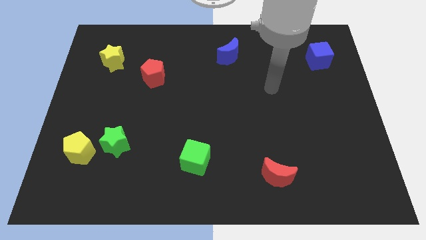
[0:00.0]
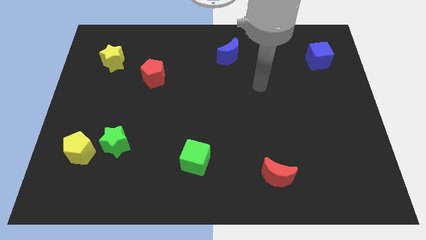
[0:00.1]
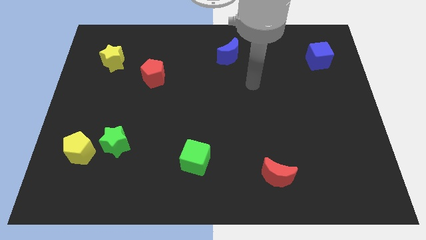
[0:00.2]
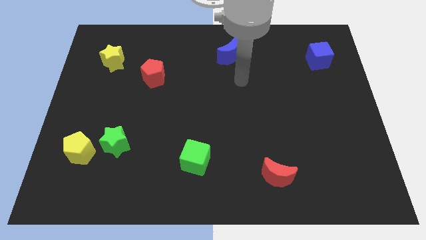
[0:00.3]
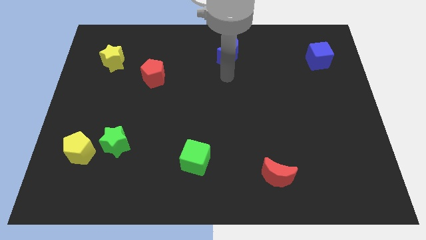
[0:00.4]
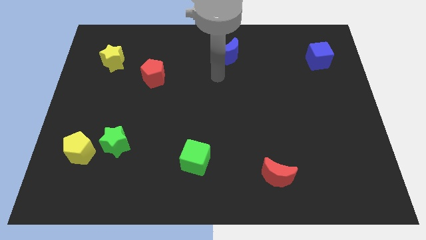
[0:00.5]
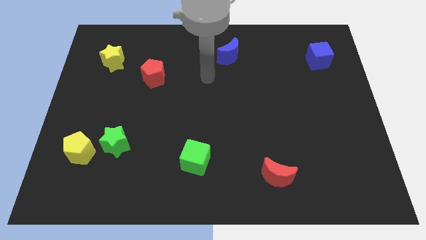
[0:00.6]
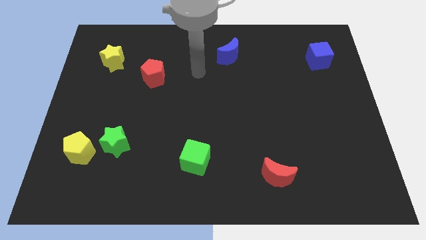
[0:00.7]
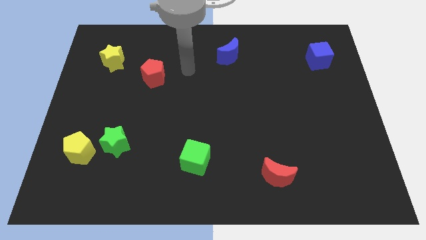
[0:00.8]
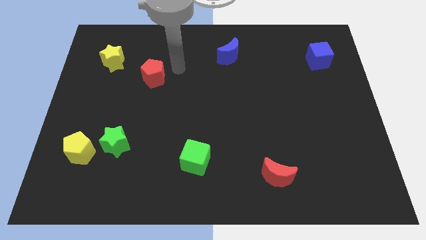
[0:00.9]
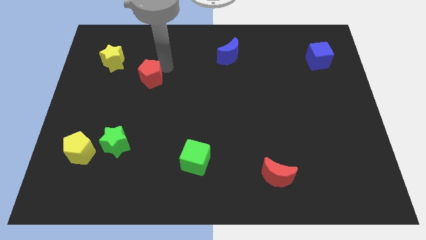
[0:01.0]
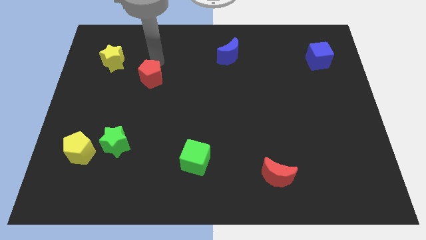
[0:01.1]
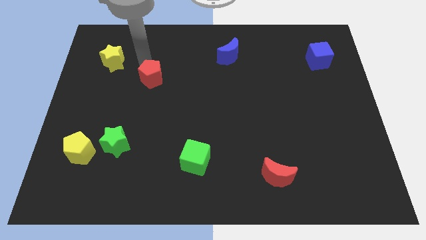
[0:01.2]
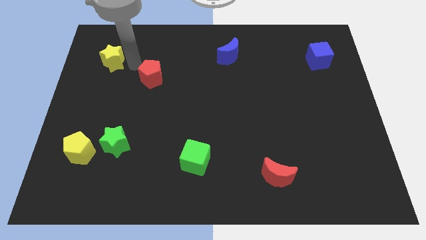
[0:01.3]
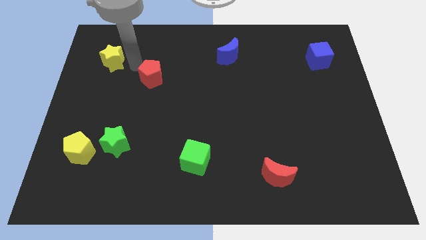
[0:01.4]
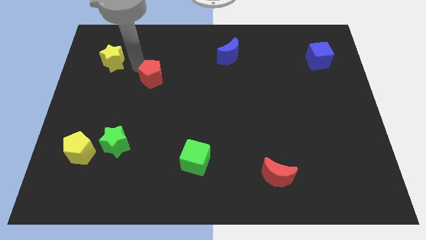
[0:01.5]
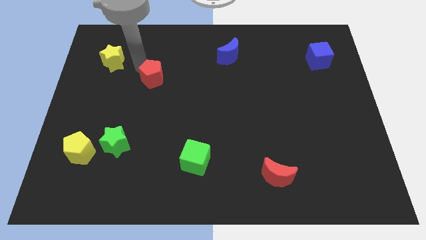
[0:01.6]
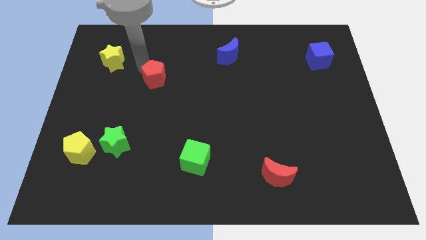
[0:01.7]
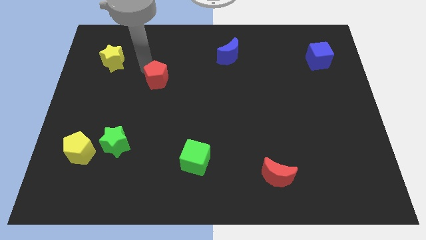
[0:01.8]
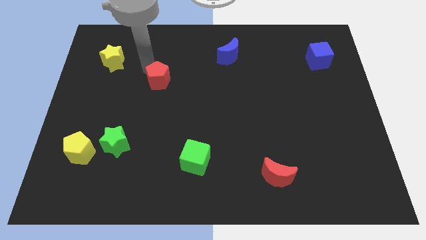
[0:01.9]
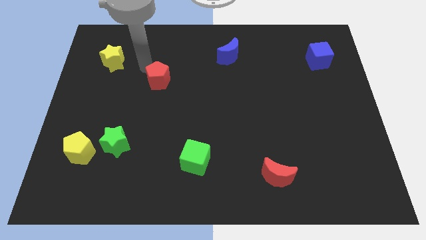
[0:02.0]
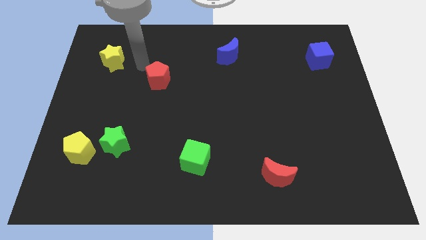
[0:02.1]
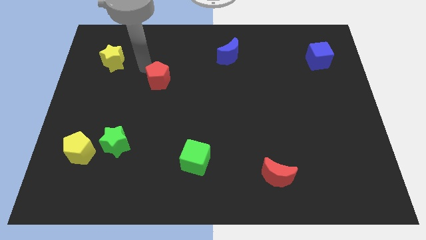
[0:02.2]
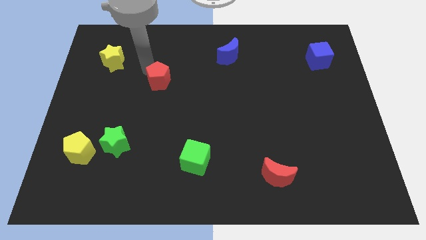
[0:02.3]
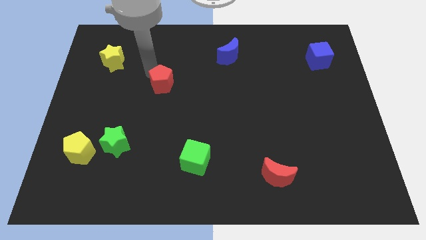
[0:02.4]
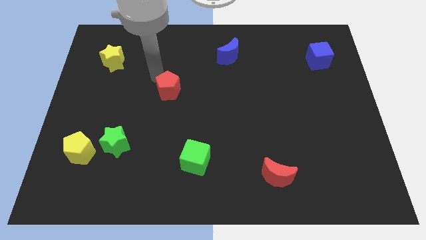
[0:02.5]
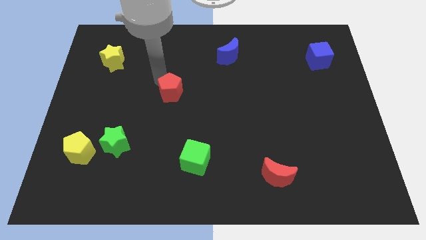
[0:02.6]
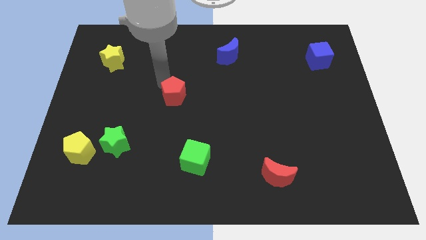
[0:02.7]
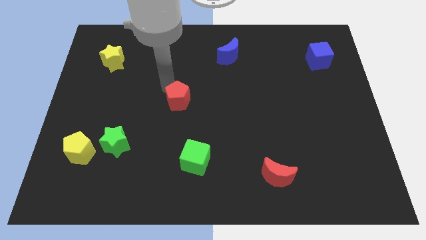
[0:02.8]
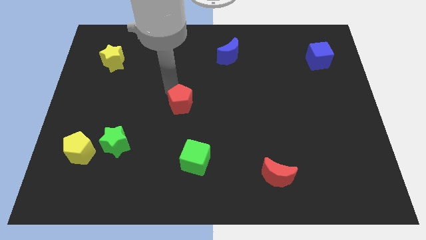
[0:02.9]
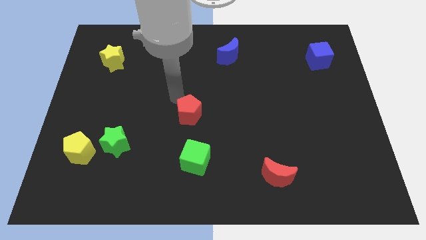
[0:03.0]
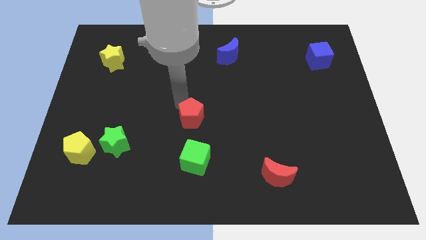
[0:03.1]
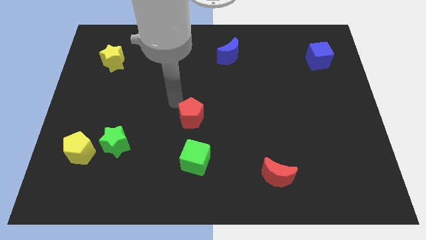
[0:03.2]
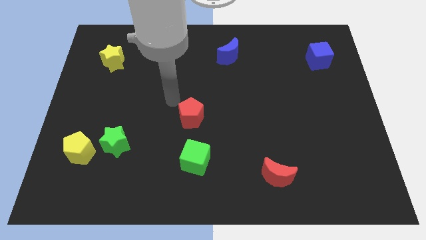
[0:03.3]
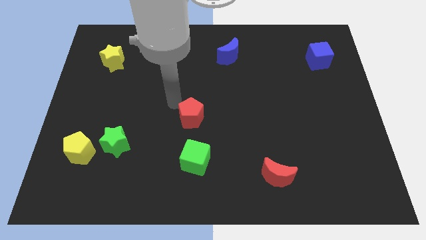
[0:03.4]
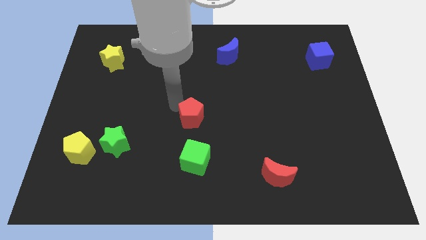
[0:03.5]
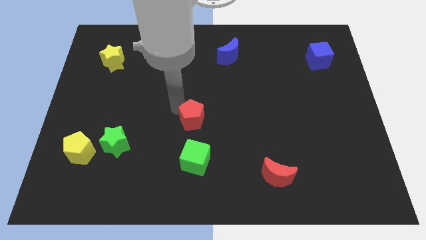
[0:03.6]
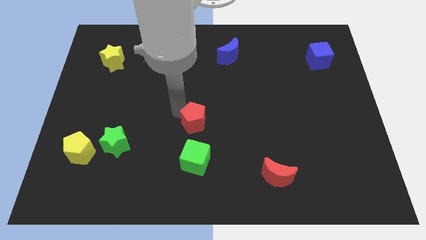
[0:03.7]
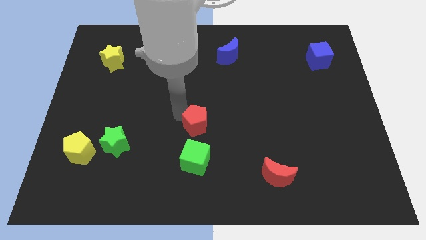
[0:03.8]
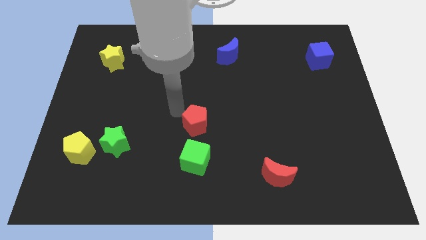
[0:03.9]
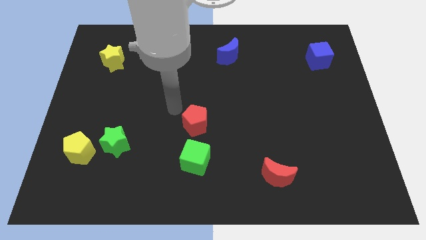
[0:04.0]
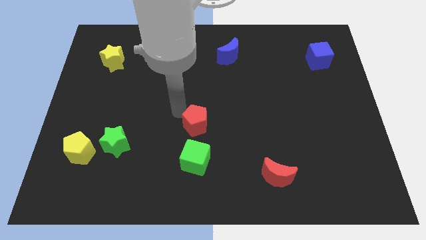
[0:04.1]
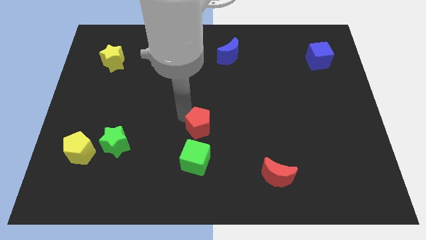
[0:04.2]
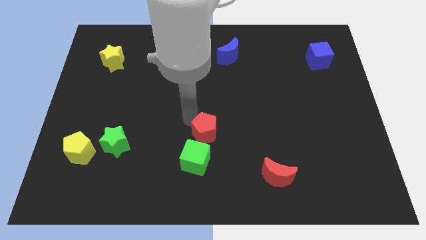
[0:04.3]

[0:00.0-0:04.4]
slide the red pentagon to the top right of the green cube

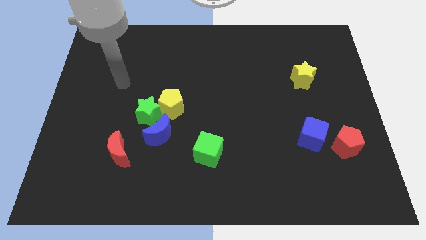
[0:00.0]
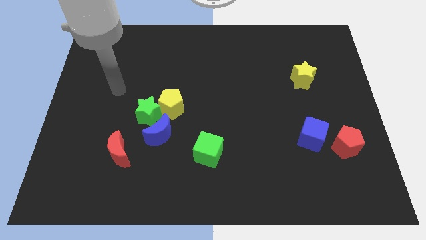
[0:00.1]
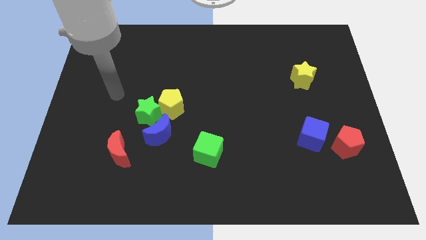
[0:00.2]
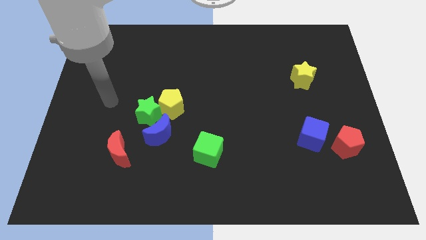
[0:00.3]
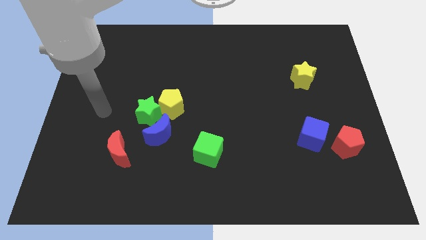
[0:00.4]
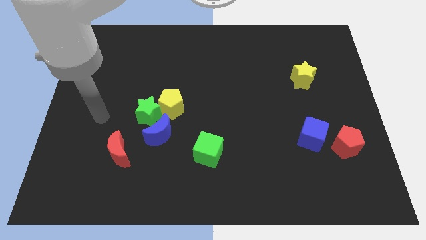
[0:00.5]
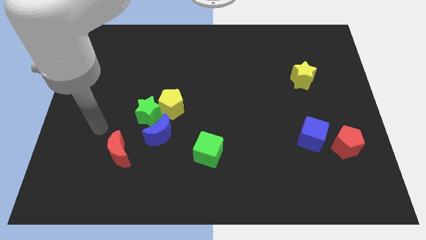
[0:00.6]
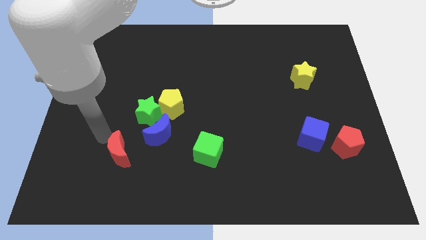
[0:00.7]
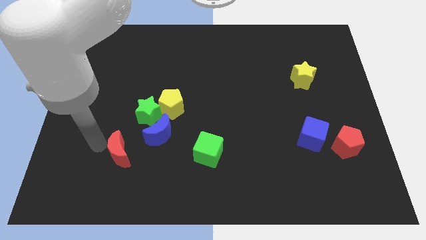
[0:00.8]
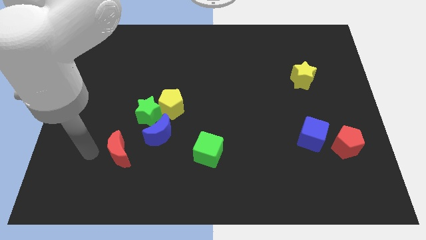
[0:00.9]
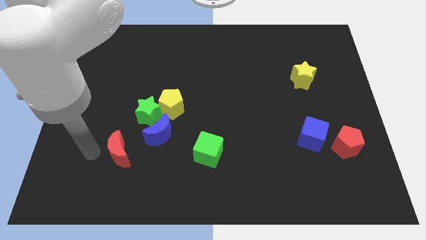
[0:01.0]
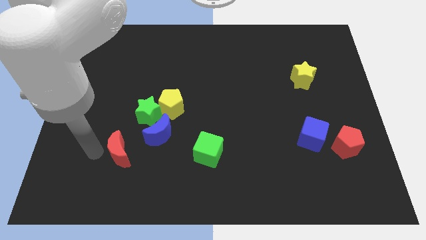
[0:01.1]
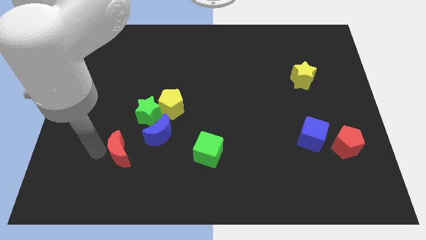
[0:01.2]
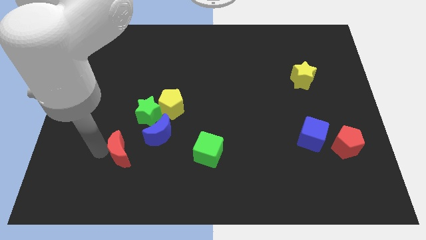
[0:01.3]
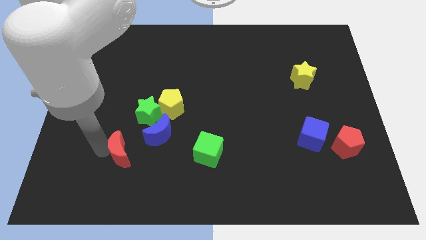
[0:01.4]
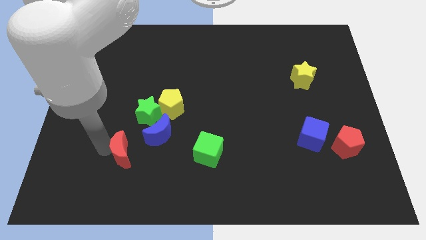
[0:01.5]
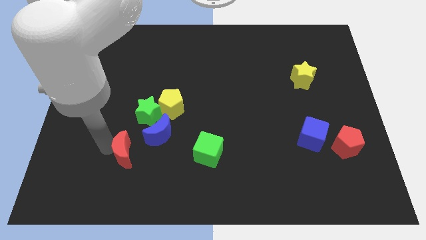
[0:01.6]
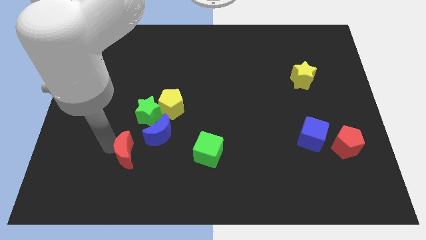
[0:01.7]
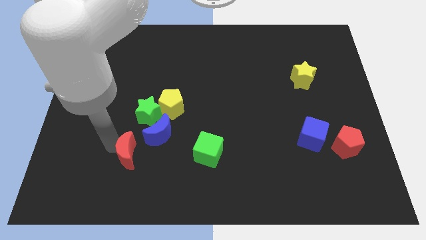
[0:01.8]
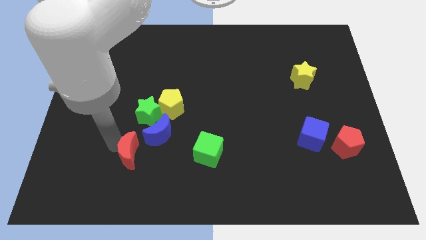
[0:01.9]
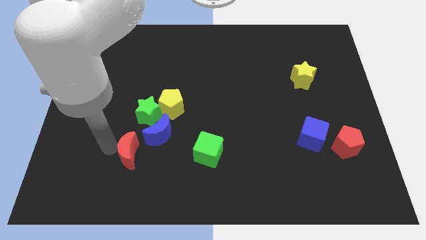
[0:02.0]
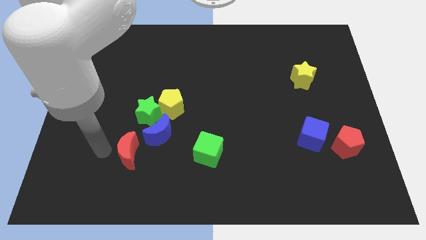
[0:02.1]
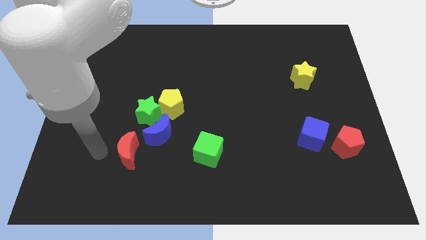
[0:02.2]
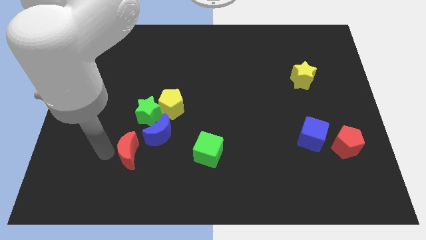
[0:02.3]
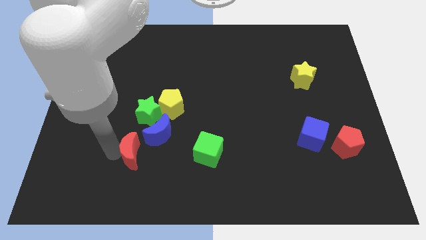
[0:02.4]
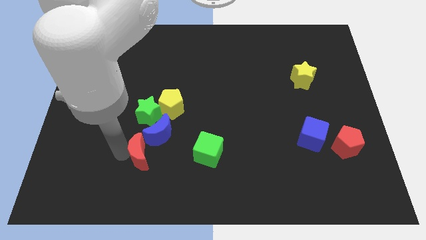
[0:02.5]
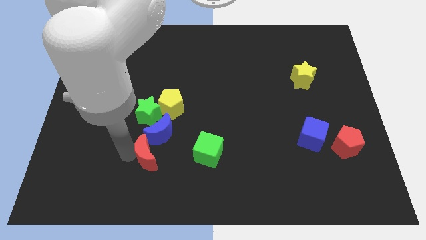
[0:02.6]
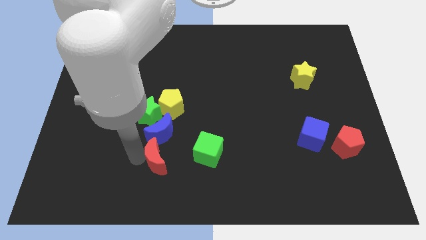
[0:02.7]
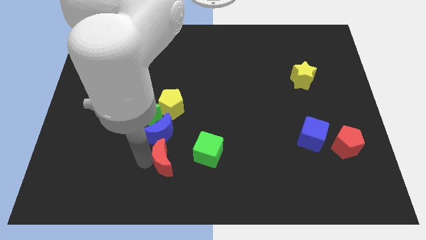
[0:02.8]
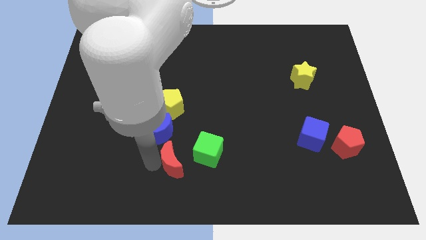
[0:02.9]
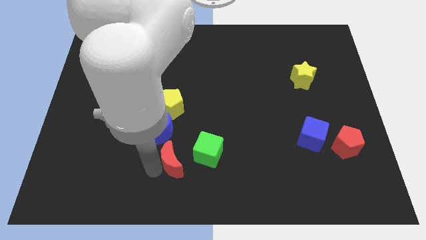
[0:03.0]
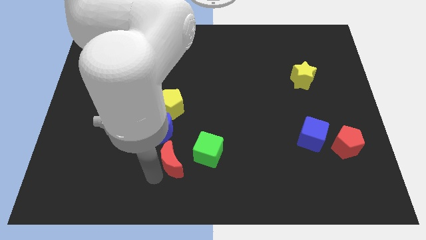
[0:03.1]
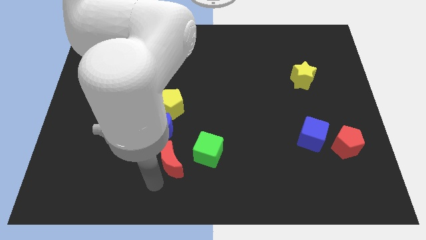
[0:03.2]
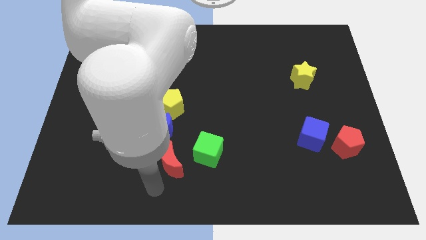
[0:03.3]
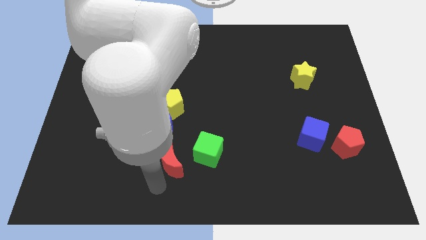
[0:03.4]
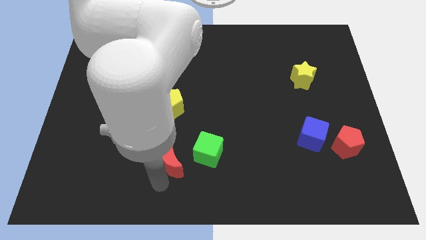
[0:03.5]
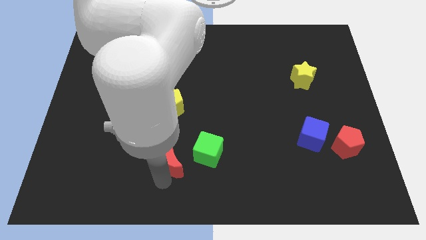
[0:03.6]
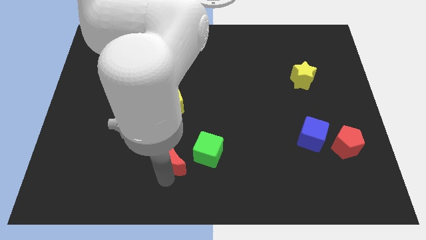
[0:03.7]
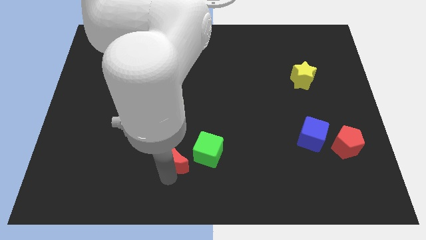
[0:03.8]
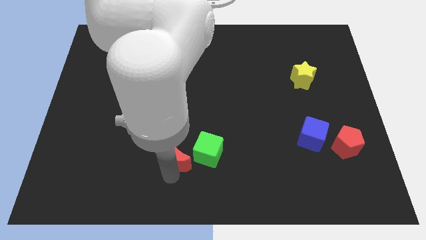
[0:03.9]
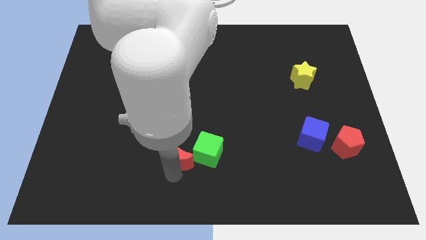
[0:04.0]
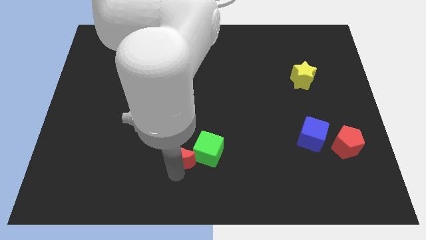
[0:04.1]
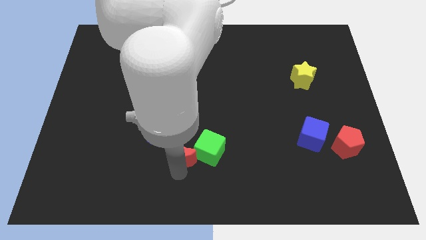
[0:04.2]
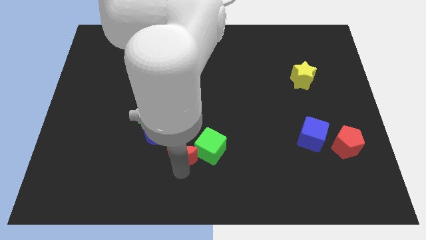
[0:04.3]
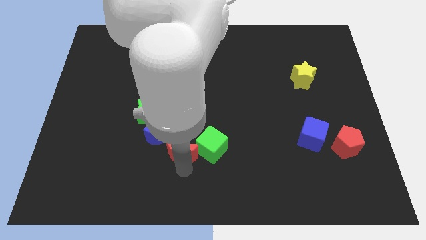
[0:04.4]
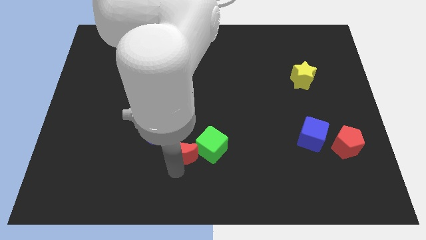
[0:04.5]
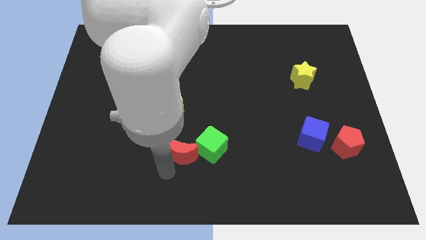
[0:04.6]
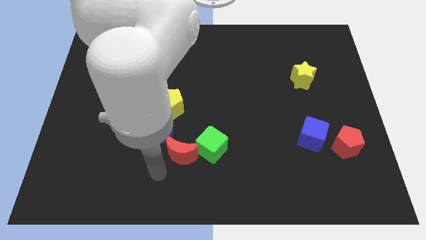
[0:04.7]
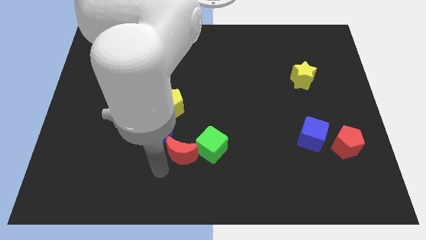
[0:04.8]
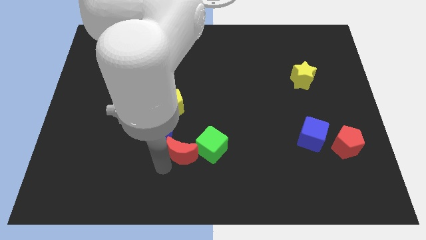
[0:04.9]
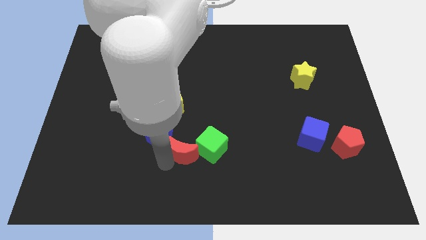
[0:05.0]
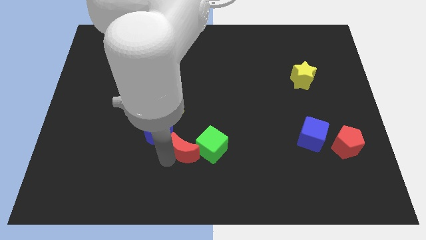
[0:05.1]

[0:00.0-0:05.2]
slide the red moon to the right of the blue moon
